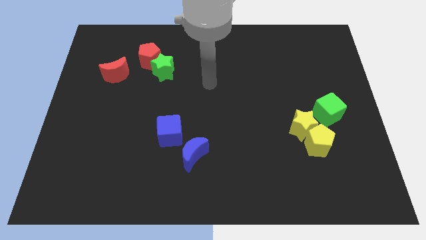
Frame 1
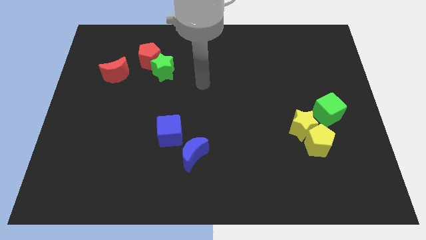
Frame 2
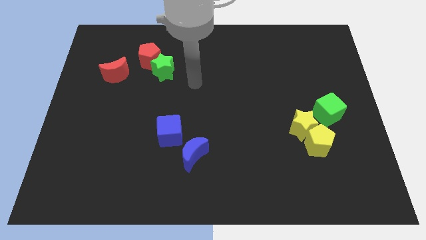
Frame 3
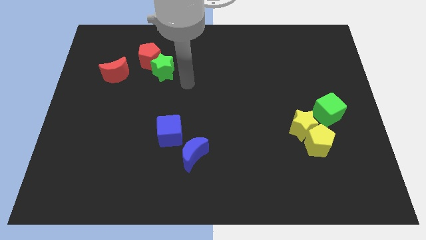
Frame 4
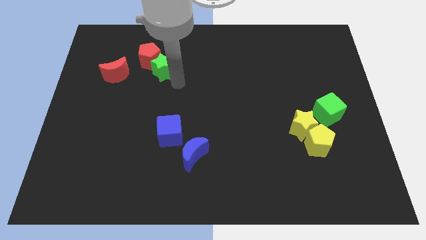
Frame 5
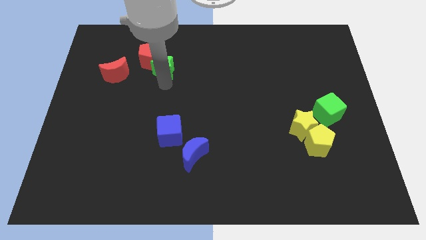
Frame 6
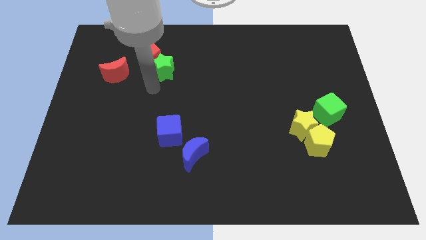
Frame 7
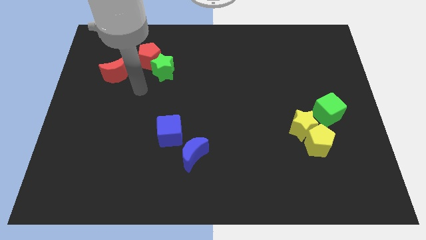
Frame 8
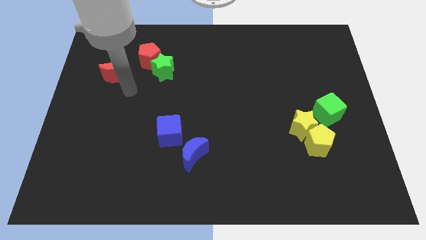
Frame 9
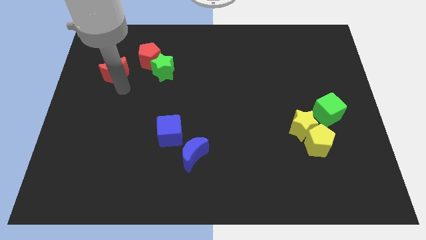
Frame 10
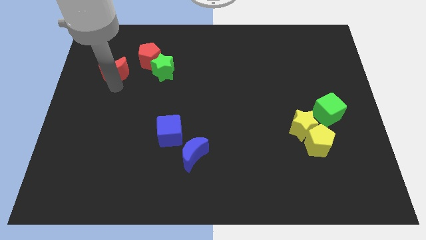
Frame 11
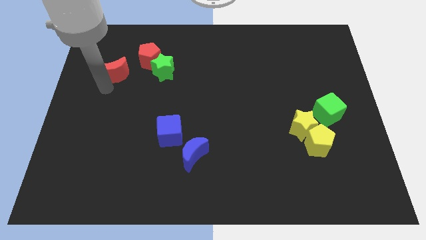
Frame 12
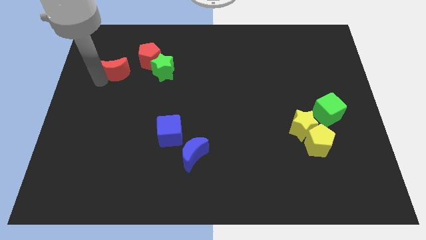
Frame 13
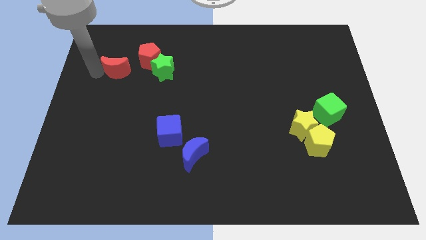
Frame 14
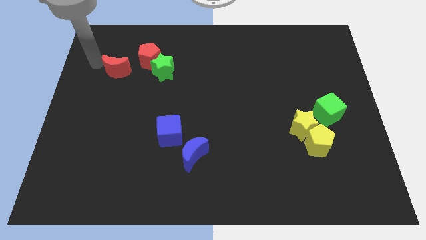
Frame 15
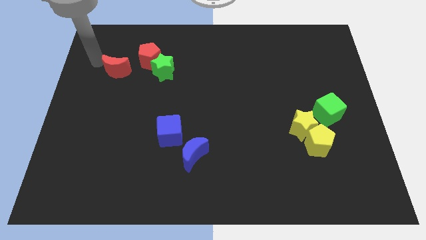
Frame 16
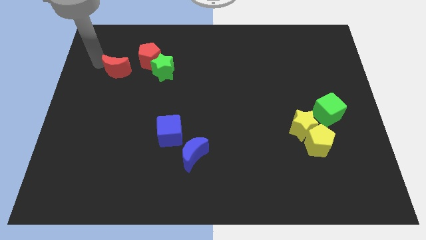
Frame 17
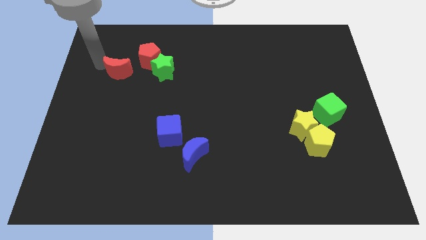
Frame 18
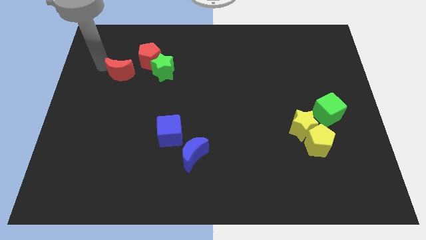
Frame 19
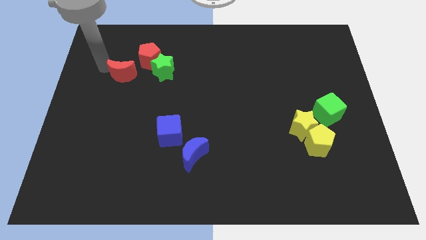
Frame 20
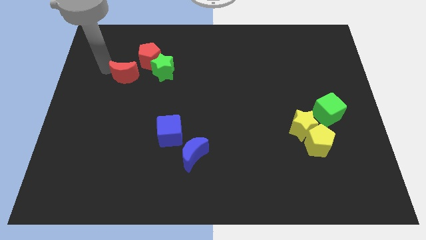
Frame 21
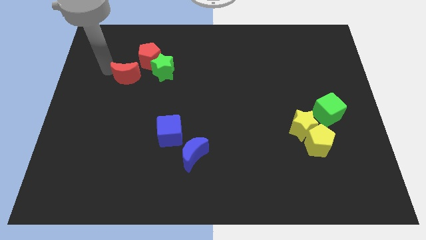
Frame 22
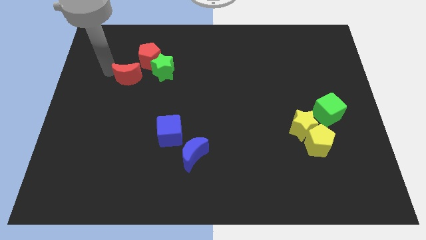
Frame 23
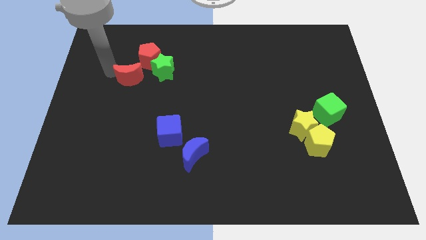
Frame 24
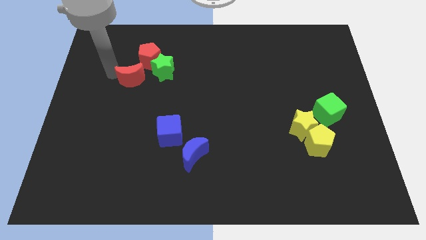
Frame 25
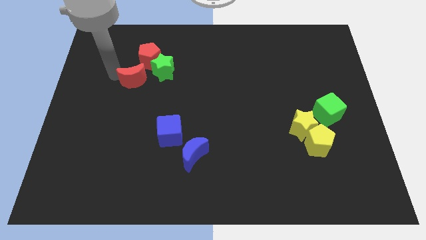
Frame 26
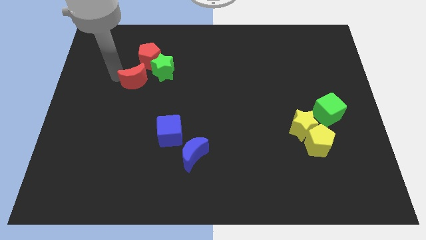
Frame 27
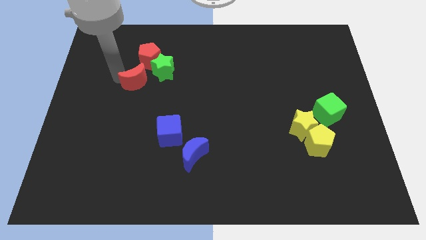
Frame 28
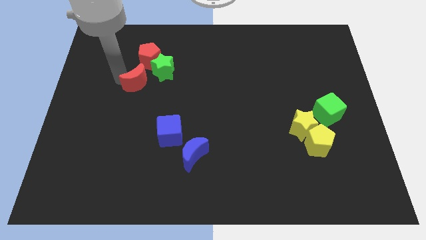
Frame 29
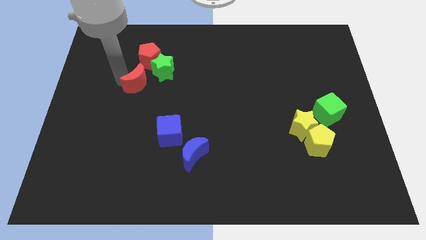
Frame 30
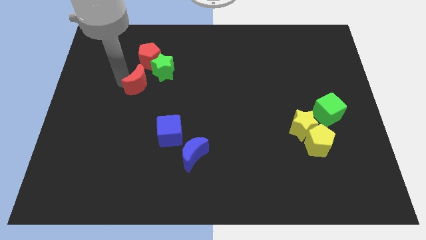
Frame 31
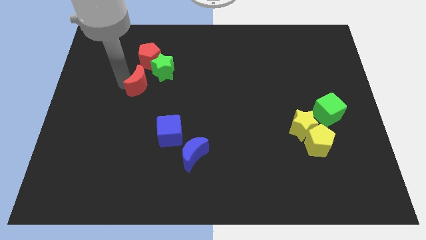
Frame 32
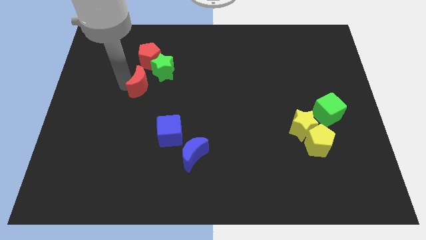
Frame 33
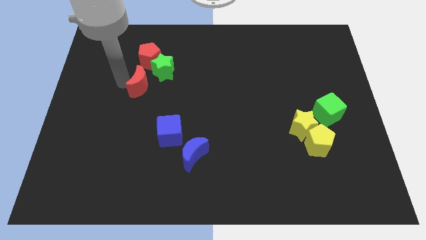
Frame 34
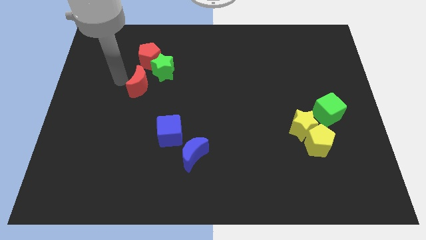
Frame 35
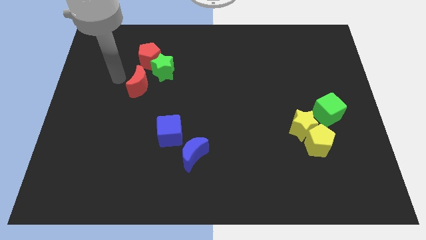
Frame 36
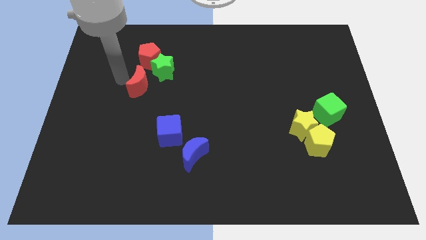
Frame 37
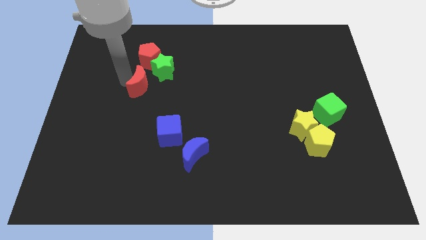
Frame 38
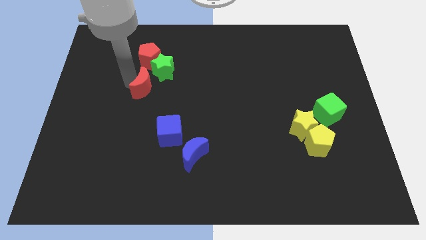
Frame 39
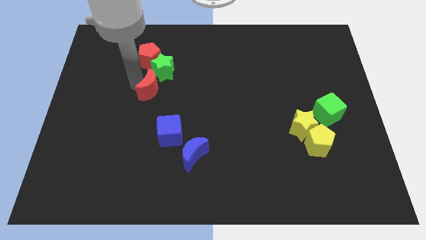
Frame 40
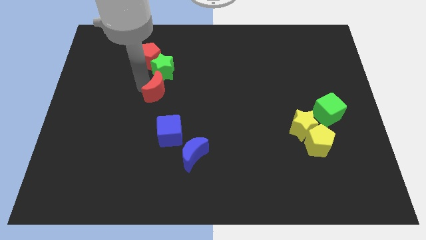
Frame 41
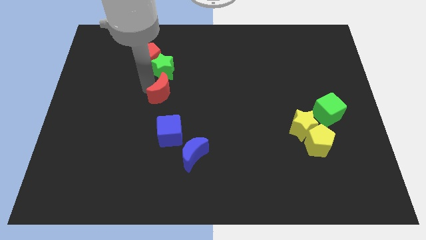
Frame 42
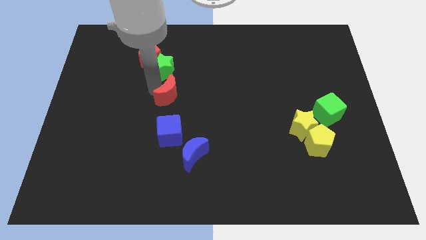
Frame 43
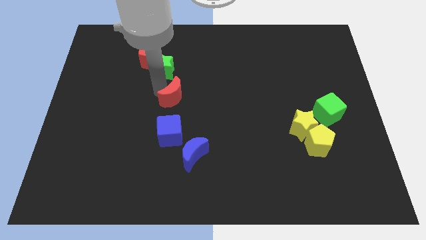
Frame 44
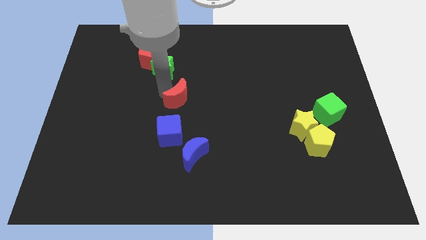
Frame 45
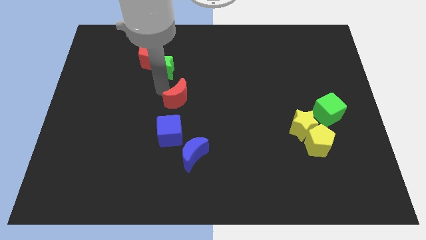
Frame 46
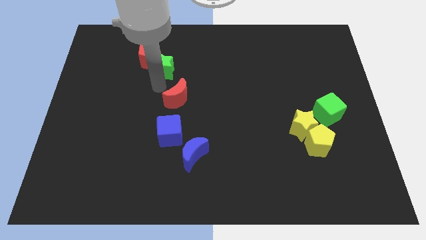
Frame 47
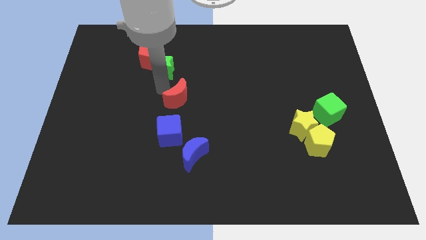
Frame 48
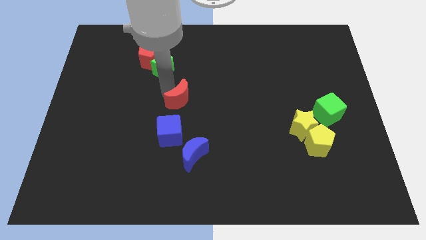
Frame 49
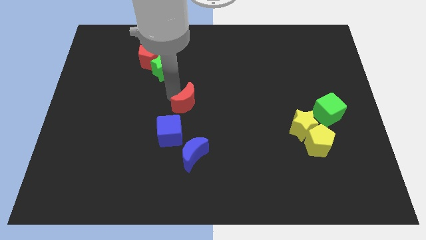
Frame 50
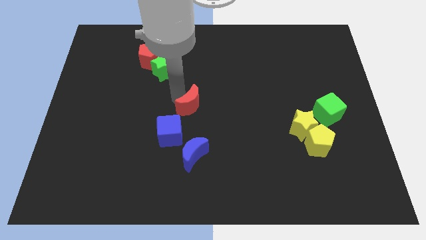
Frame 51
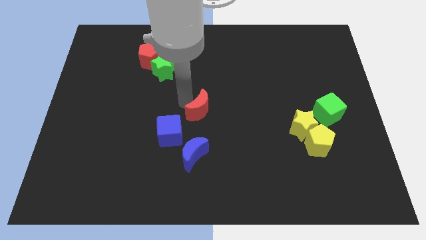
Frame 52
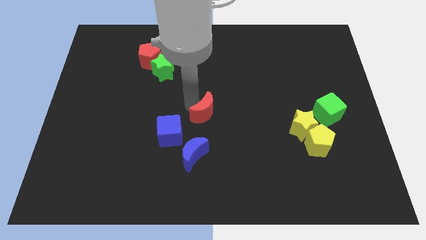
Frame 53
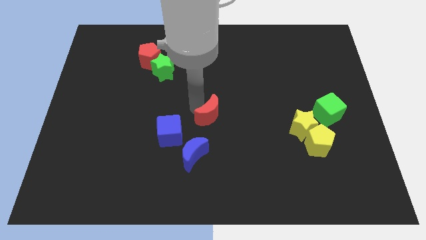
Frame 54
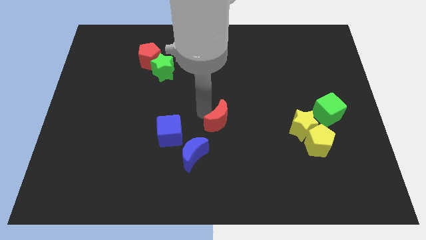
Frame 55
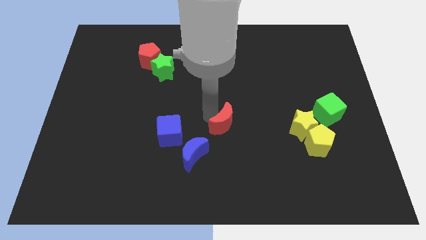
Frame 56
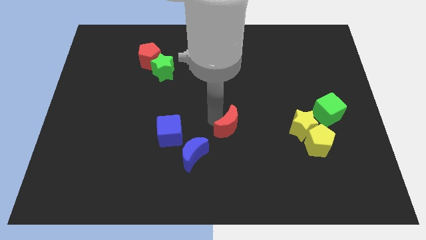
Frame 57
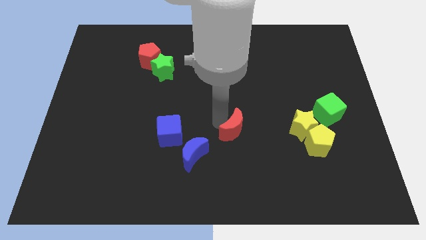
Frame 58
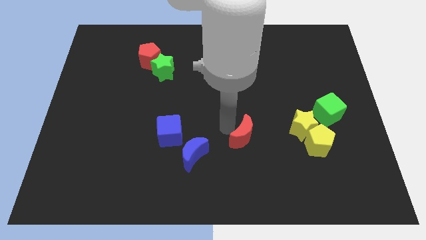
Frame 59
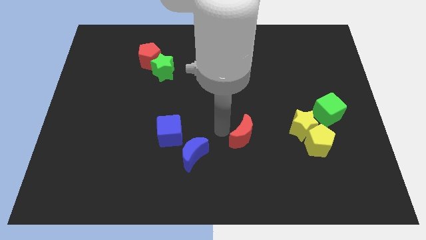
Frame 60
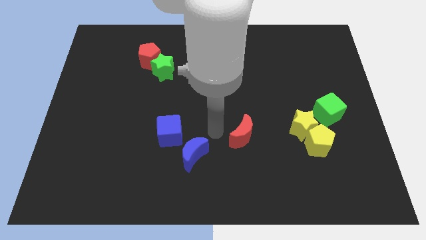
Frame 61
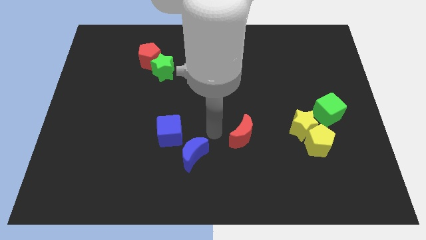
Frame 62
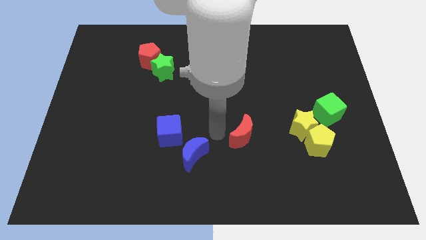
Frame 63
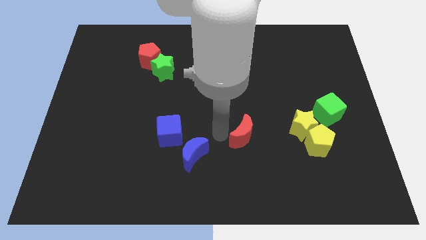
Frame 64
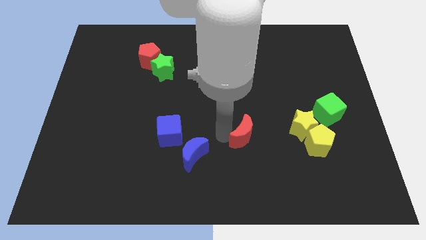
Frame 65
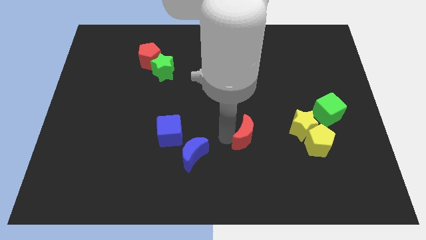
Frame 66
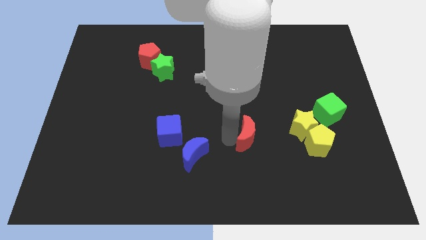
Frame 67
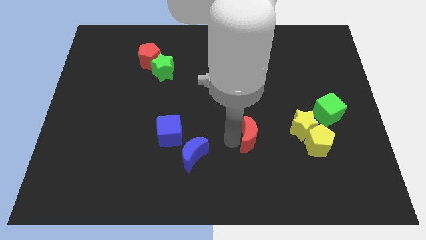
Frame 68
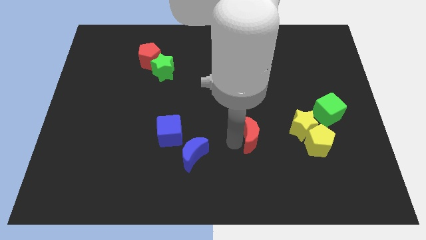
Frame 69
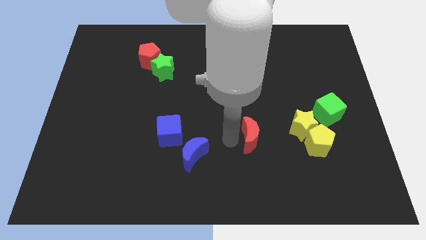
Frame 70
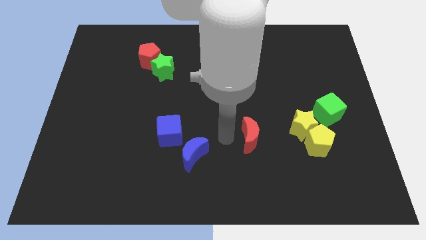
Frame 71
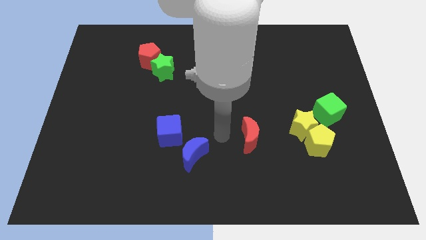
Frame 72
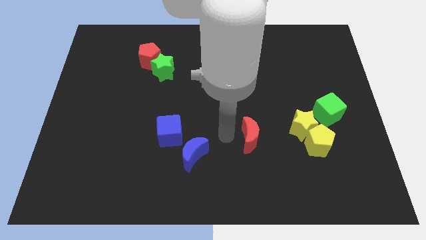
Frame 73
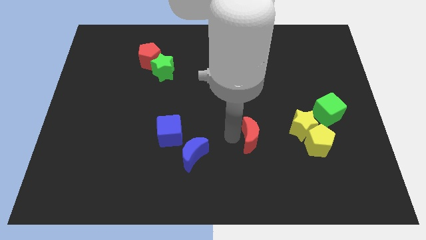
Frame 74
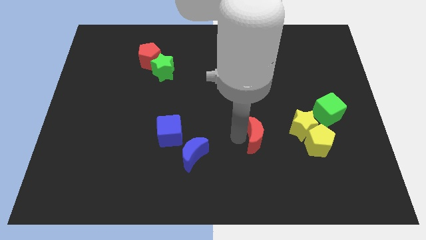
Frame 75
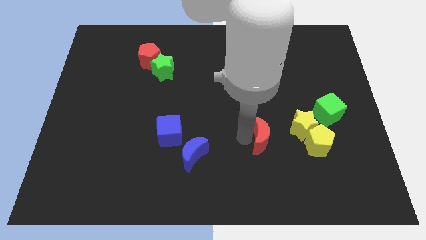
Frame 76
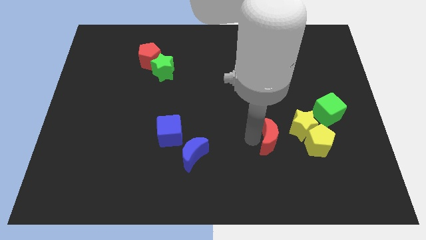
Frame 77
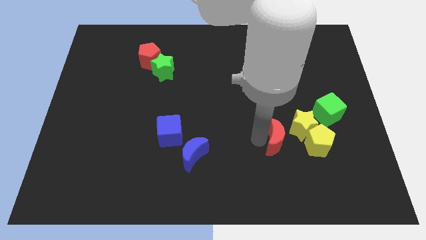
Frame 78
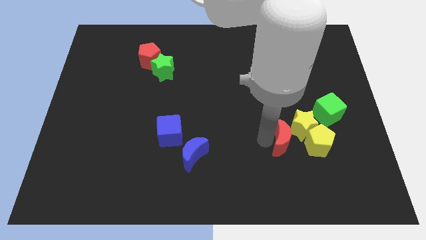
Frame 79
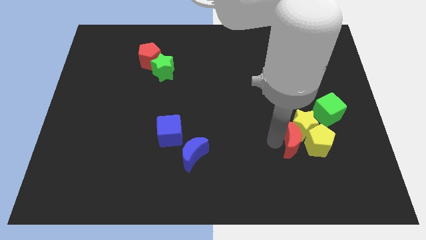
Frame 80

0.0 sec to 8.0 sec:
move the red moon towards the yellow pentagon
